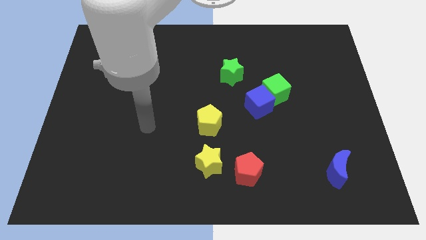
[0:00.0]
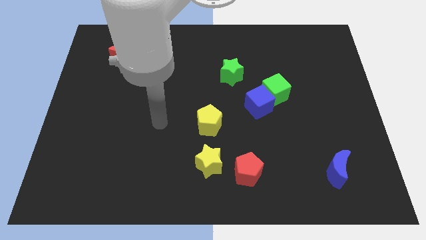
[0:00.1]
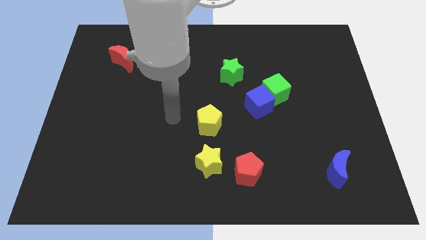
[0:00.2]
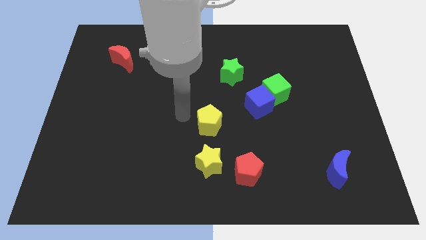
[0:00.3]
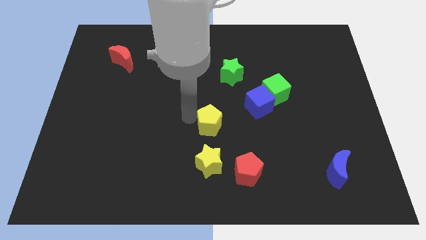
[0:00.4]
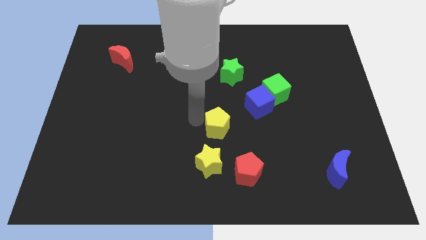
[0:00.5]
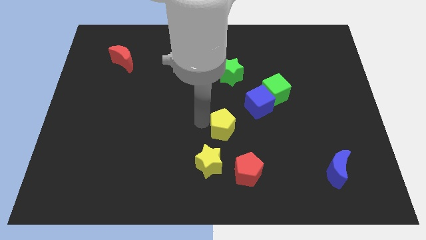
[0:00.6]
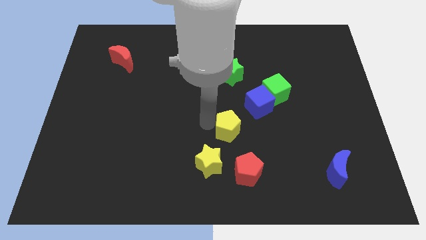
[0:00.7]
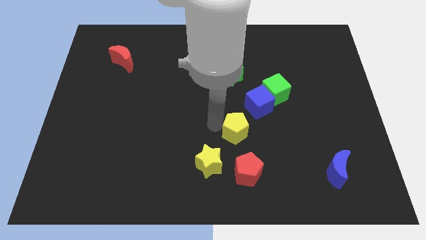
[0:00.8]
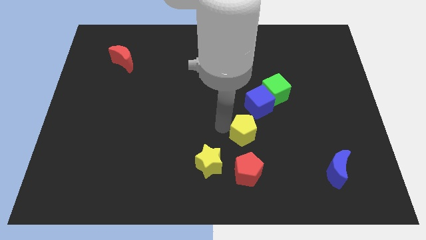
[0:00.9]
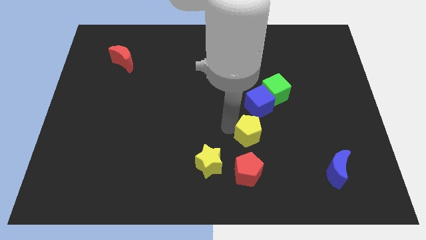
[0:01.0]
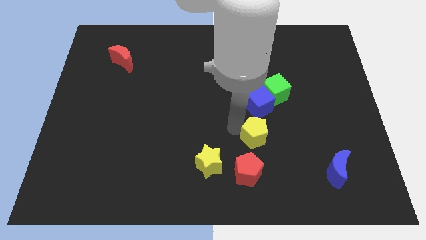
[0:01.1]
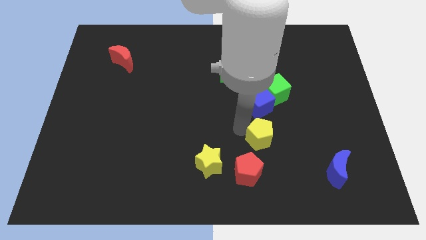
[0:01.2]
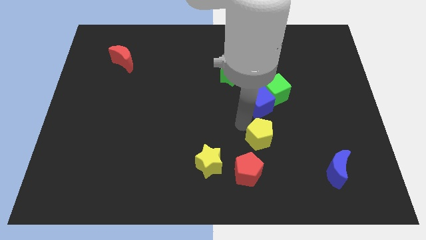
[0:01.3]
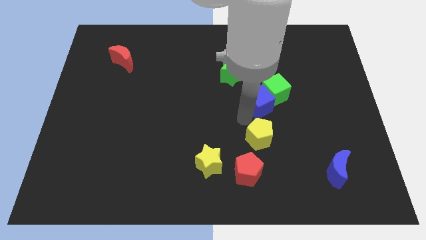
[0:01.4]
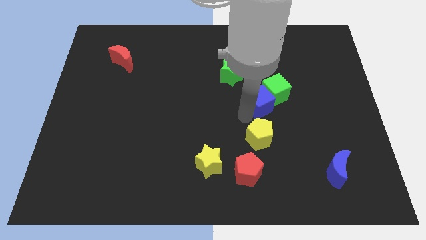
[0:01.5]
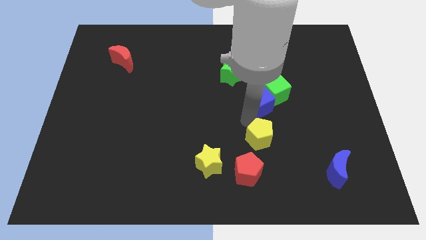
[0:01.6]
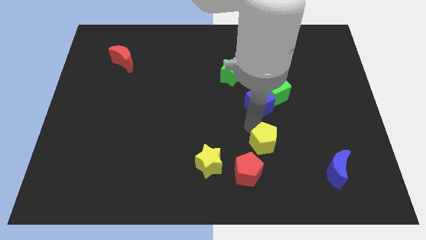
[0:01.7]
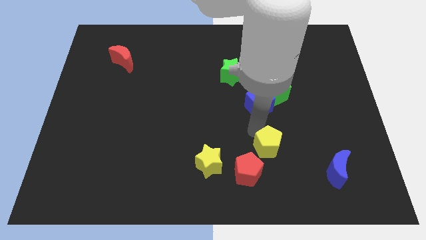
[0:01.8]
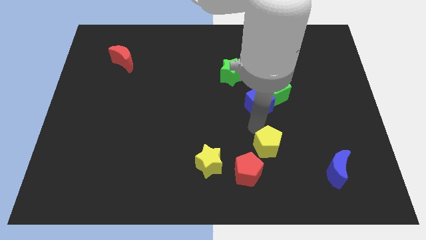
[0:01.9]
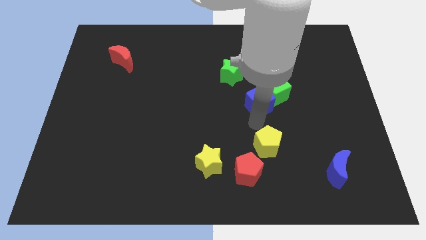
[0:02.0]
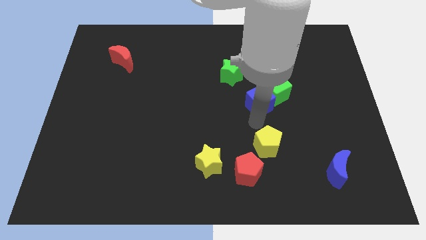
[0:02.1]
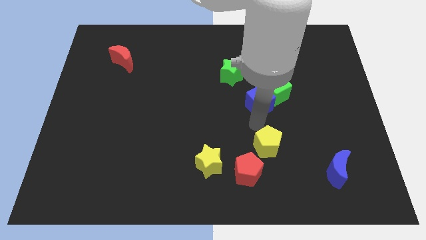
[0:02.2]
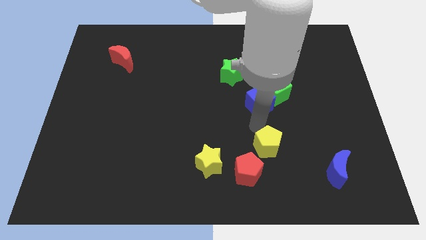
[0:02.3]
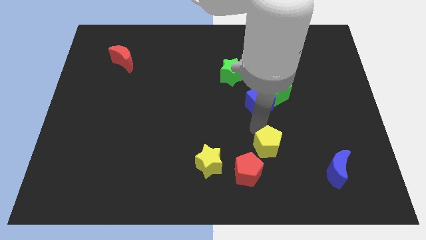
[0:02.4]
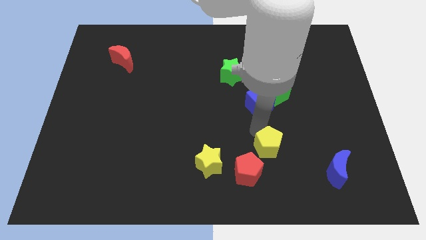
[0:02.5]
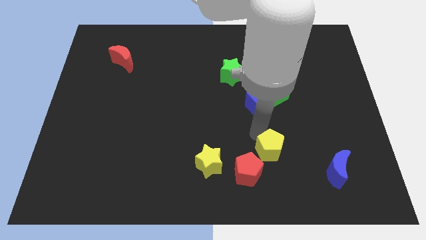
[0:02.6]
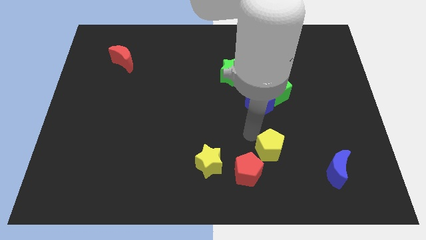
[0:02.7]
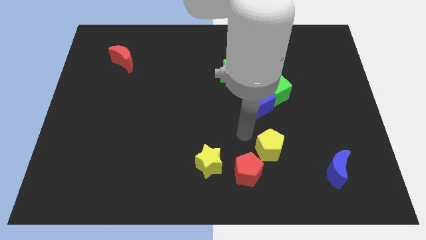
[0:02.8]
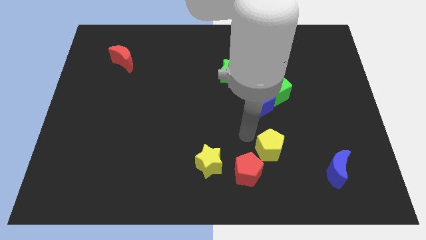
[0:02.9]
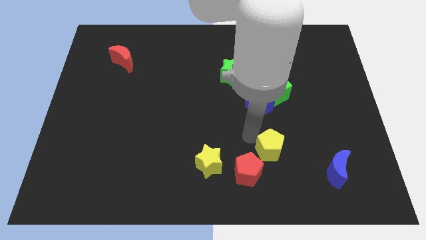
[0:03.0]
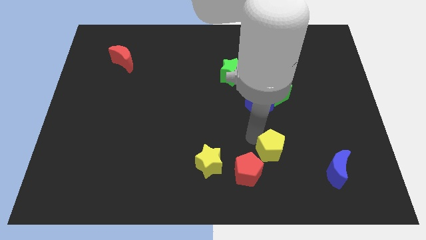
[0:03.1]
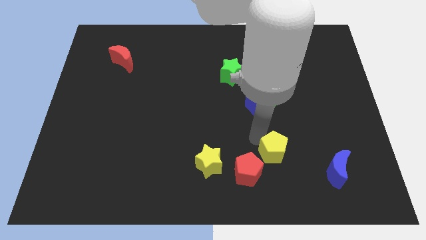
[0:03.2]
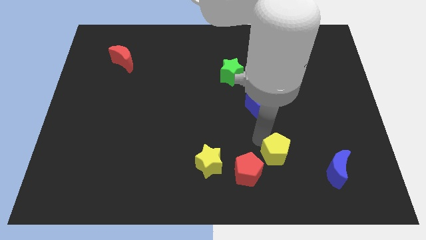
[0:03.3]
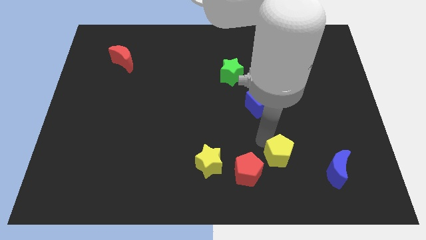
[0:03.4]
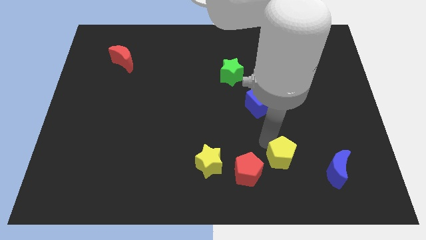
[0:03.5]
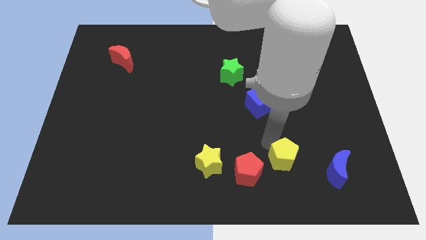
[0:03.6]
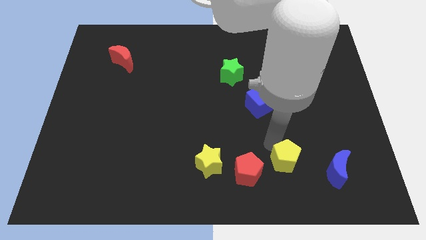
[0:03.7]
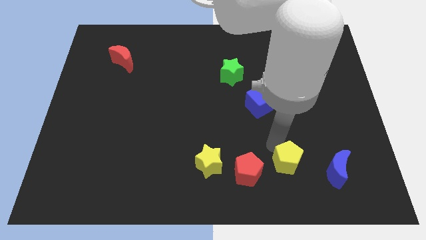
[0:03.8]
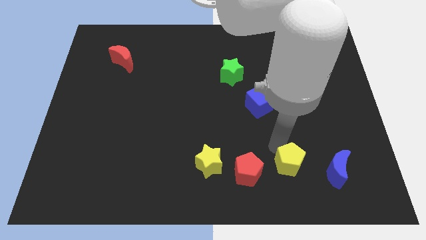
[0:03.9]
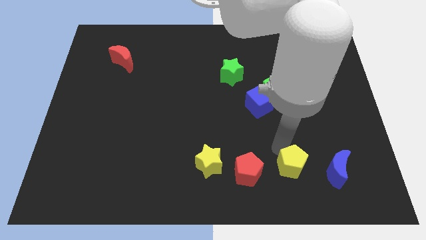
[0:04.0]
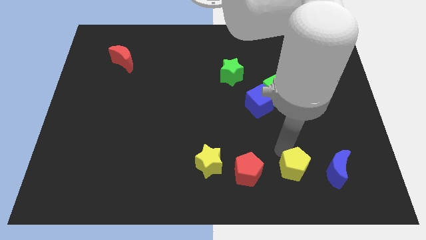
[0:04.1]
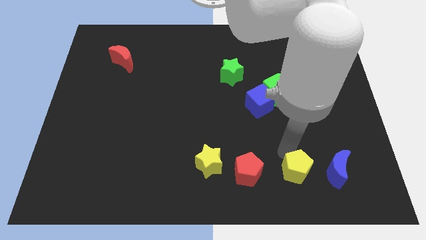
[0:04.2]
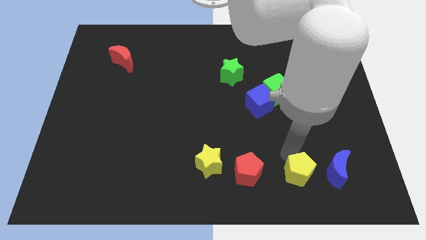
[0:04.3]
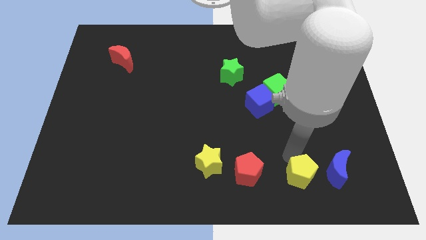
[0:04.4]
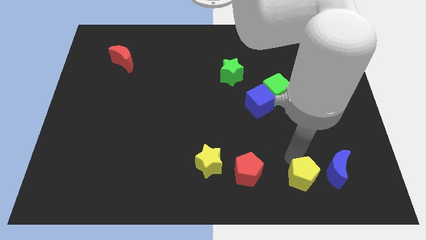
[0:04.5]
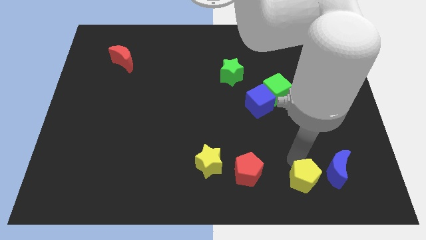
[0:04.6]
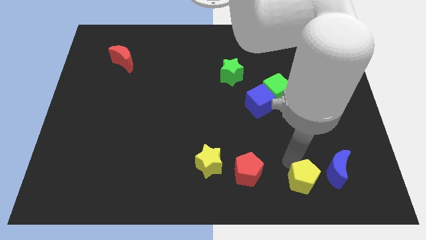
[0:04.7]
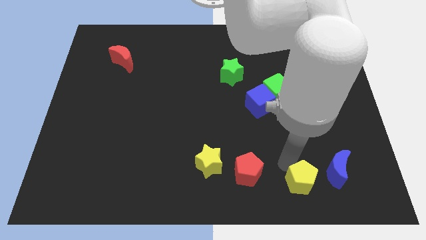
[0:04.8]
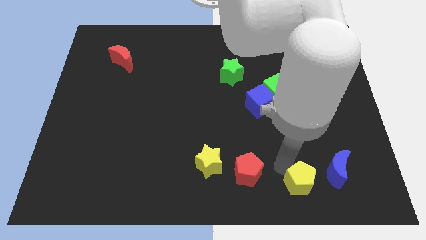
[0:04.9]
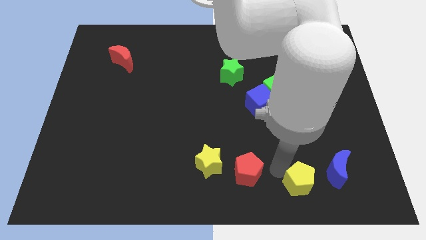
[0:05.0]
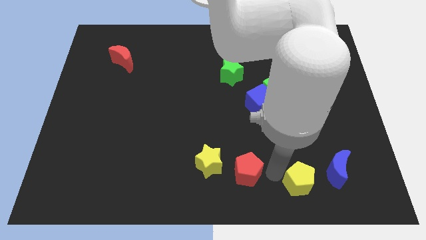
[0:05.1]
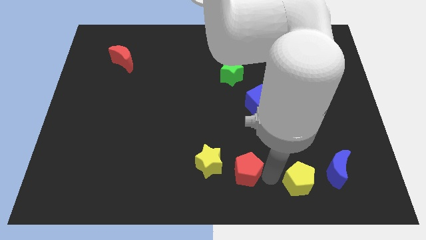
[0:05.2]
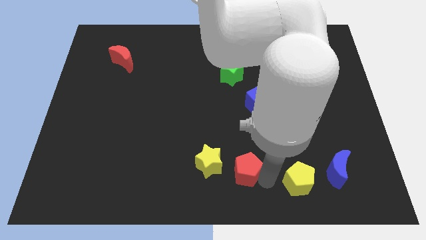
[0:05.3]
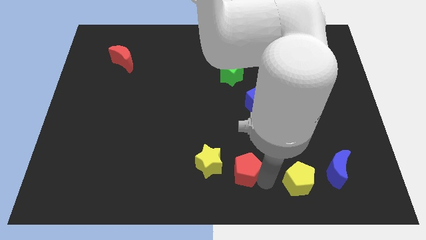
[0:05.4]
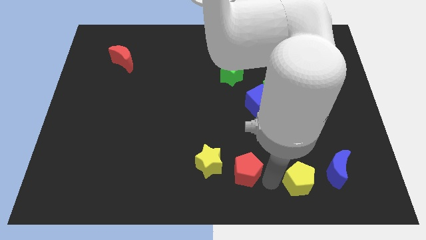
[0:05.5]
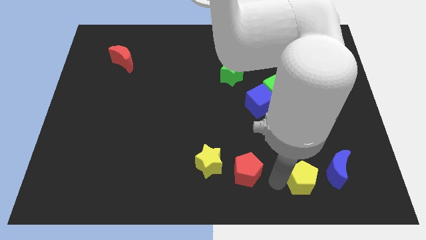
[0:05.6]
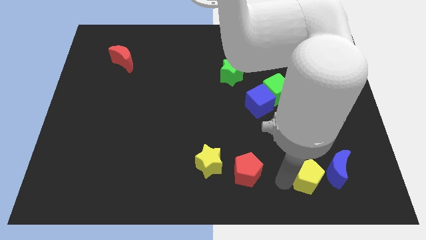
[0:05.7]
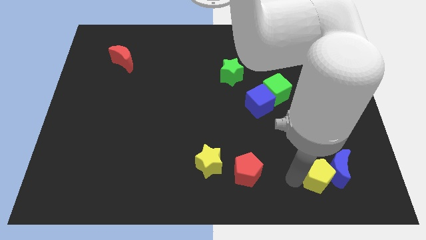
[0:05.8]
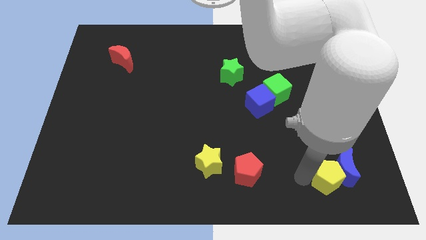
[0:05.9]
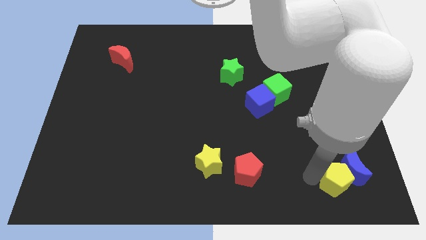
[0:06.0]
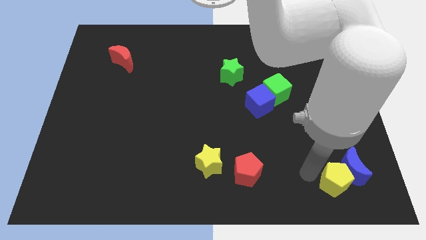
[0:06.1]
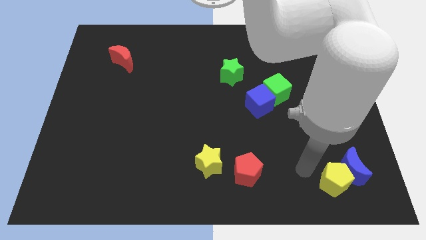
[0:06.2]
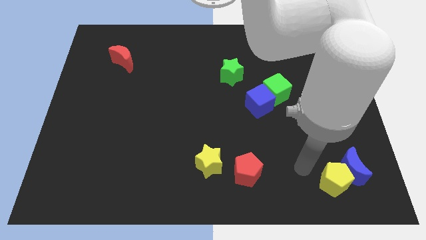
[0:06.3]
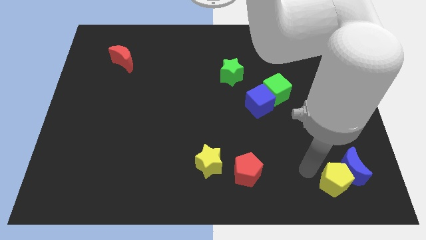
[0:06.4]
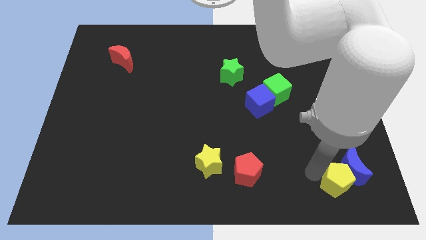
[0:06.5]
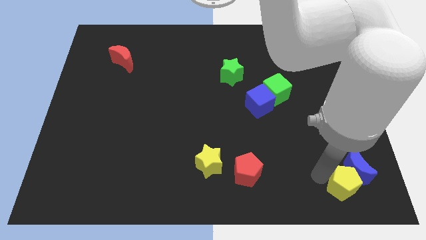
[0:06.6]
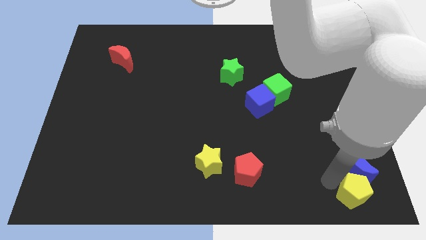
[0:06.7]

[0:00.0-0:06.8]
push the yellow pentagon to the lower right corner
